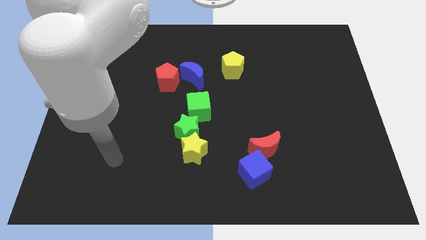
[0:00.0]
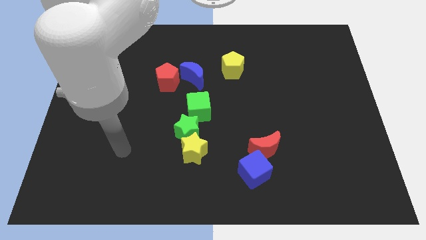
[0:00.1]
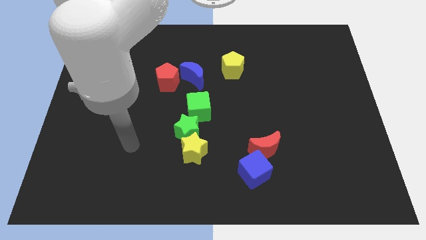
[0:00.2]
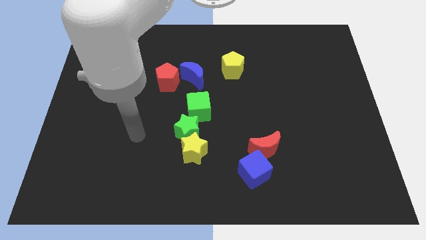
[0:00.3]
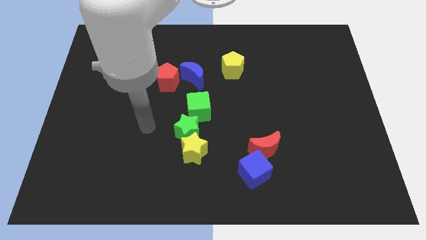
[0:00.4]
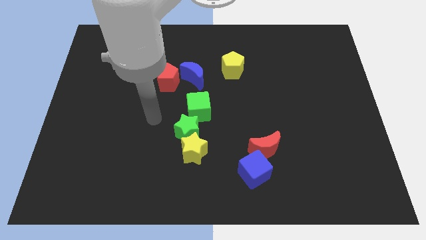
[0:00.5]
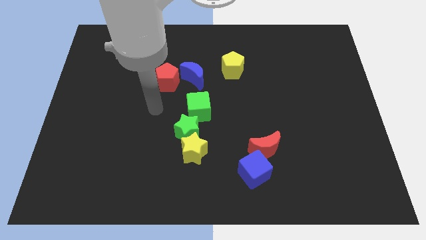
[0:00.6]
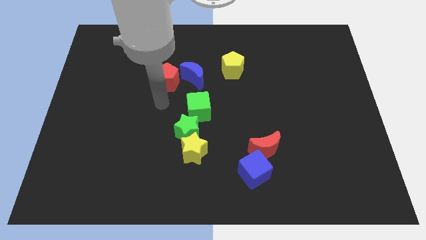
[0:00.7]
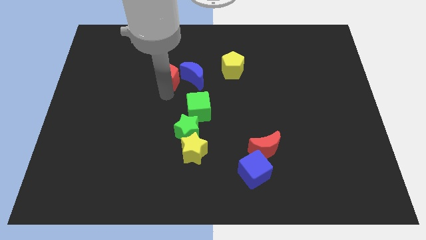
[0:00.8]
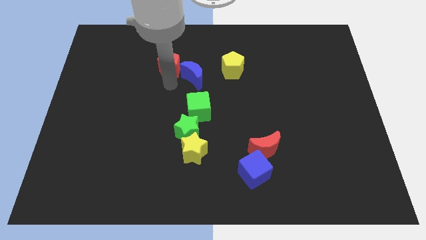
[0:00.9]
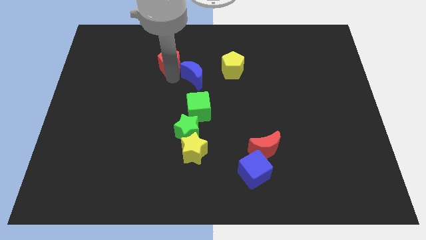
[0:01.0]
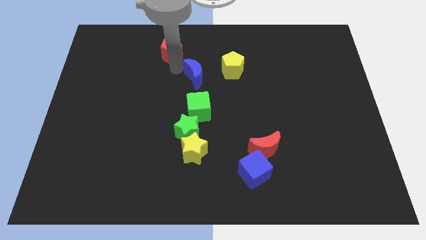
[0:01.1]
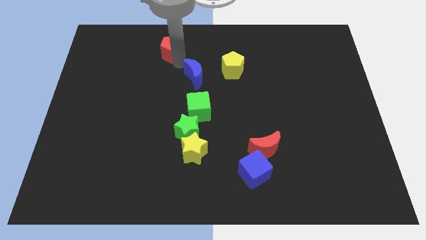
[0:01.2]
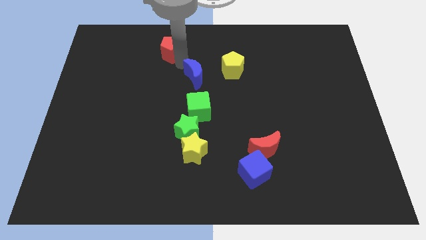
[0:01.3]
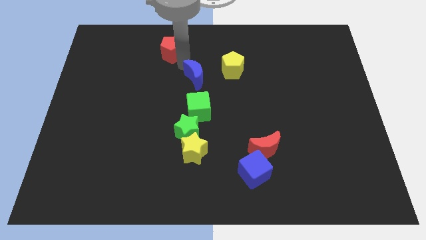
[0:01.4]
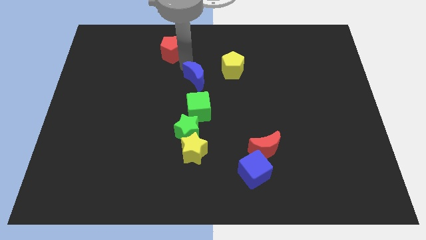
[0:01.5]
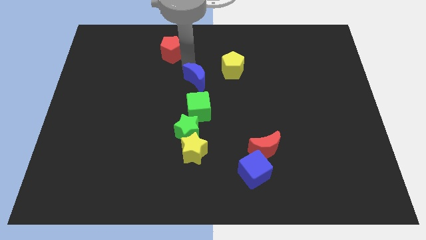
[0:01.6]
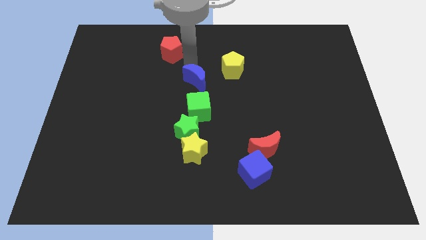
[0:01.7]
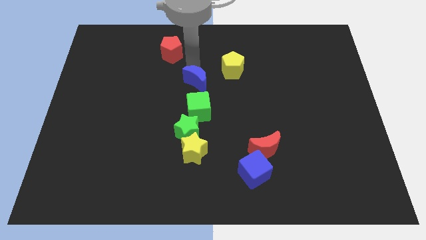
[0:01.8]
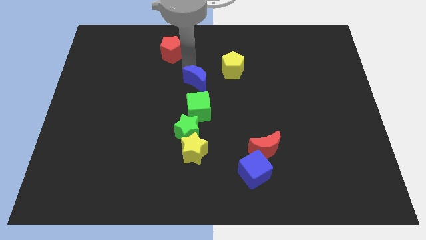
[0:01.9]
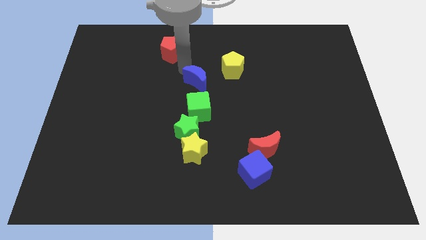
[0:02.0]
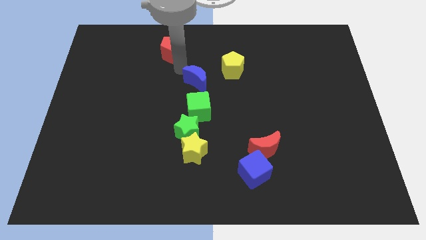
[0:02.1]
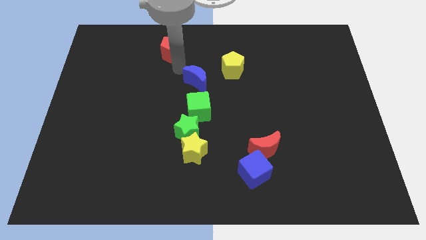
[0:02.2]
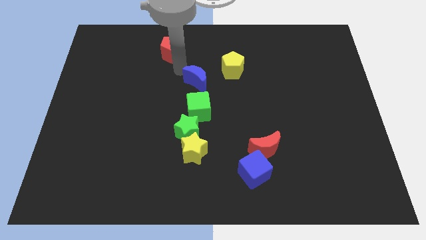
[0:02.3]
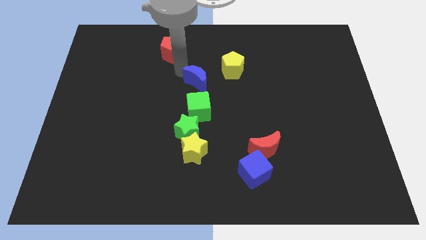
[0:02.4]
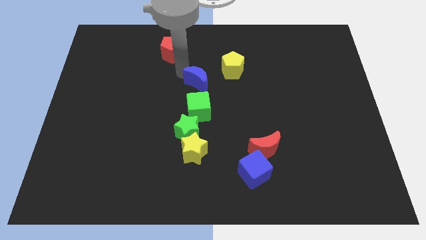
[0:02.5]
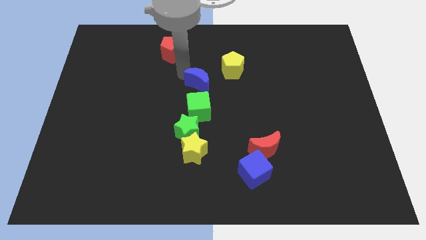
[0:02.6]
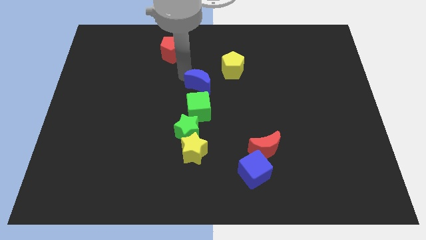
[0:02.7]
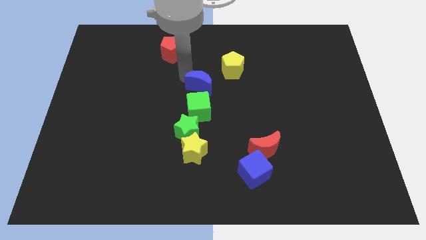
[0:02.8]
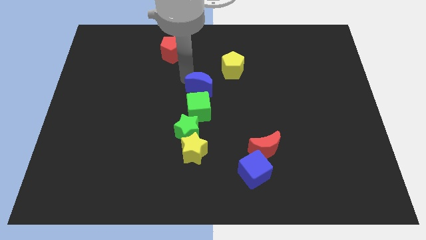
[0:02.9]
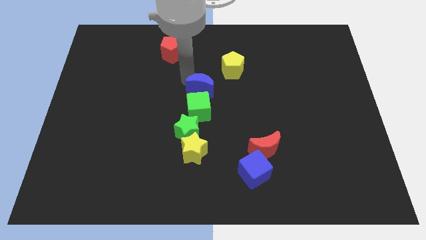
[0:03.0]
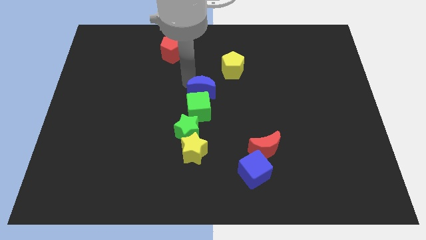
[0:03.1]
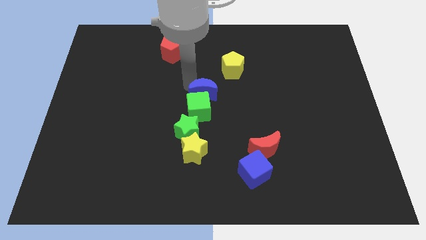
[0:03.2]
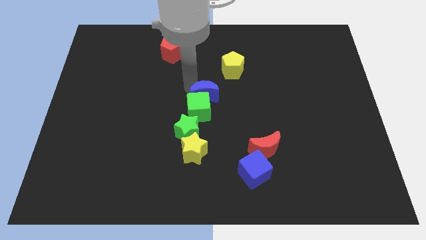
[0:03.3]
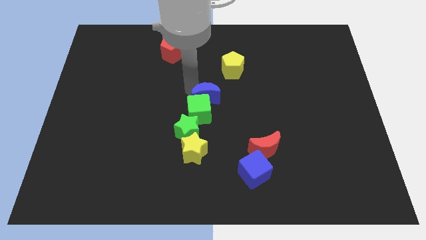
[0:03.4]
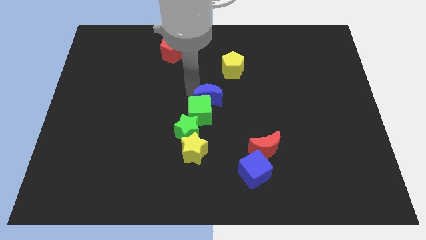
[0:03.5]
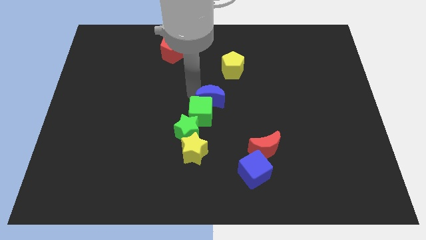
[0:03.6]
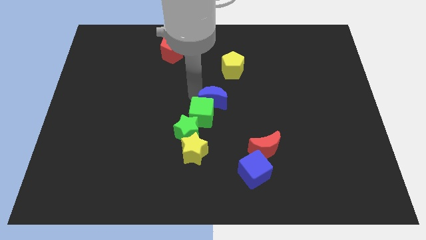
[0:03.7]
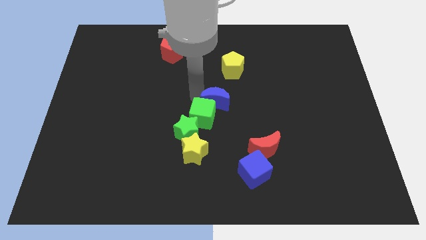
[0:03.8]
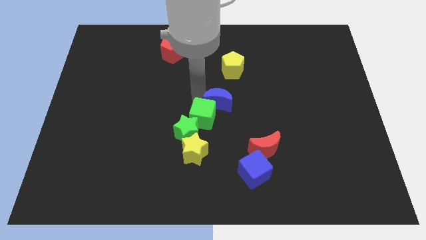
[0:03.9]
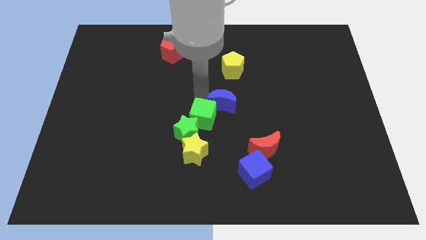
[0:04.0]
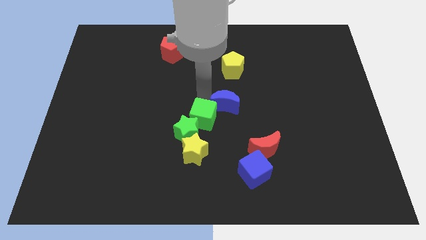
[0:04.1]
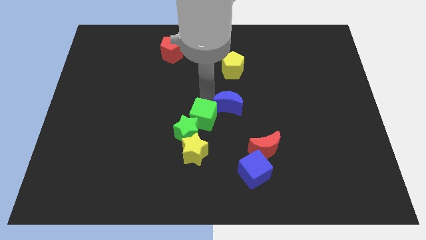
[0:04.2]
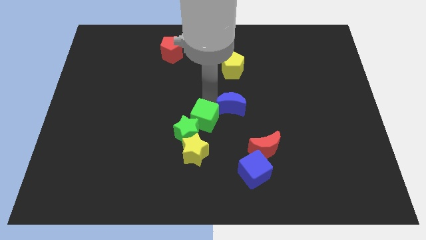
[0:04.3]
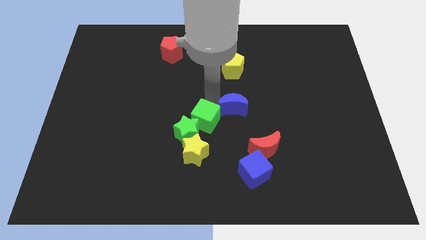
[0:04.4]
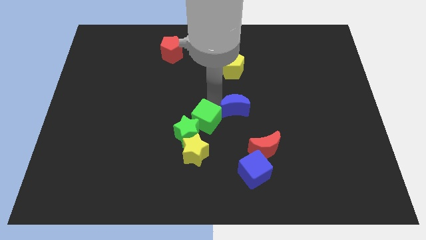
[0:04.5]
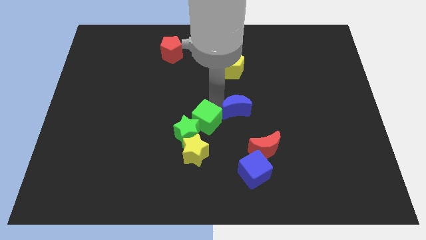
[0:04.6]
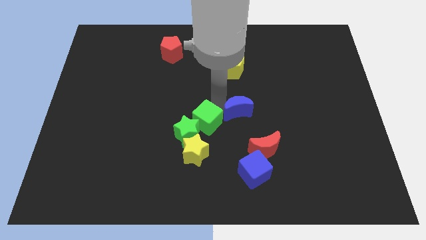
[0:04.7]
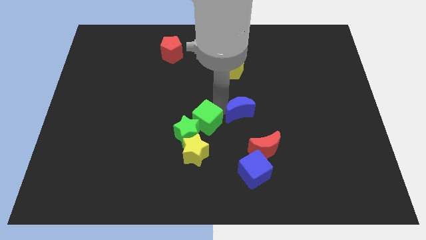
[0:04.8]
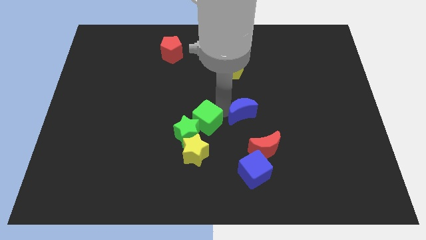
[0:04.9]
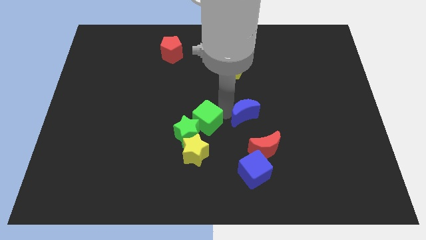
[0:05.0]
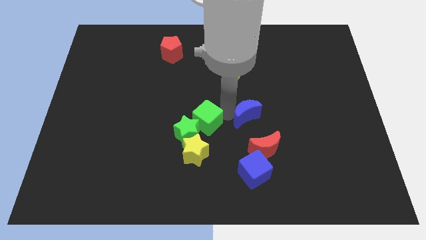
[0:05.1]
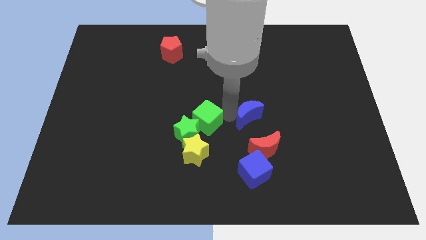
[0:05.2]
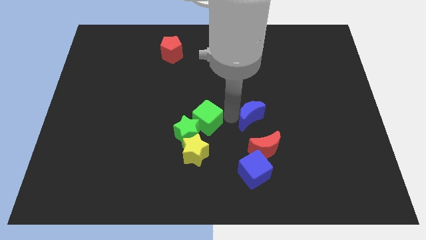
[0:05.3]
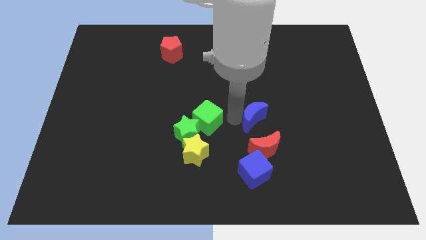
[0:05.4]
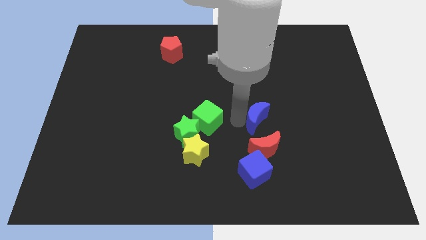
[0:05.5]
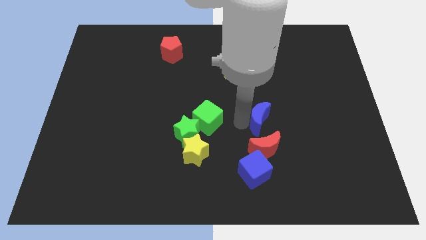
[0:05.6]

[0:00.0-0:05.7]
slide the blue moon down and then to the right

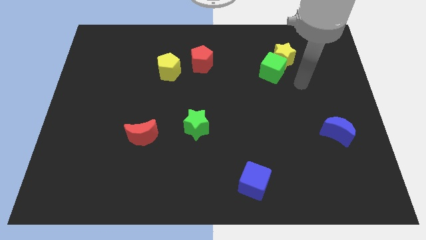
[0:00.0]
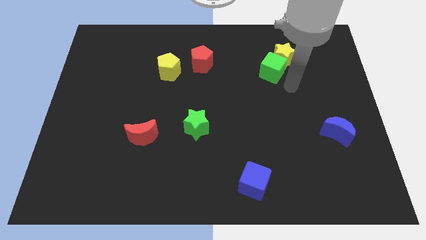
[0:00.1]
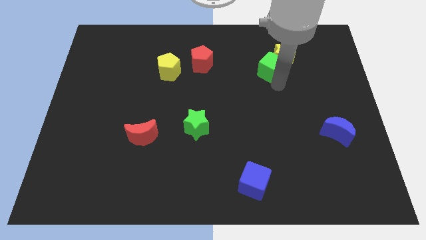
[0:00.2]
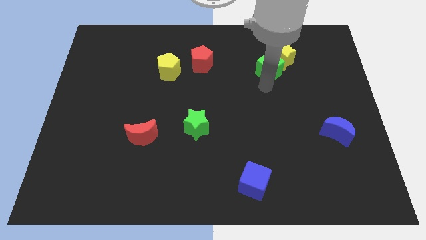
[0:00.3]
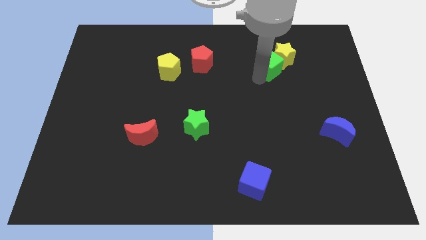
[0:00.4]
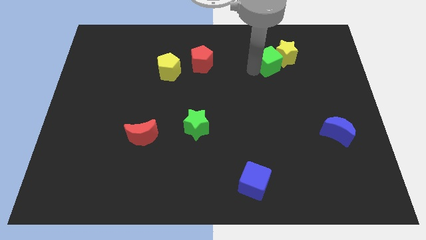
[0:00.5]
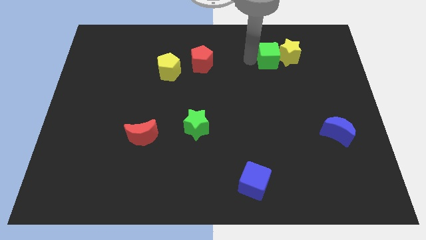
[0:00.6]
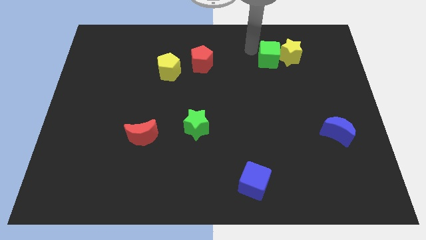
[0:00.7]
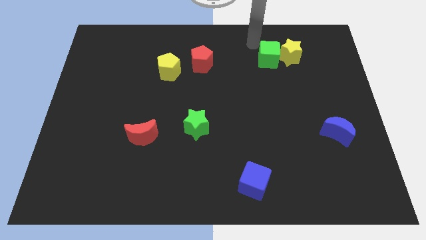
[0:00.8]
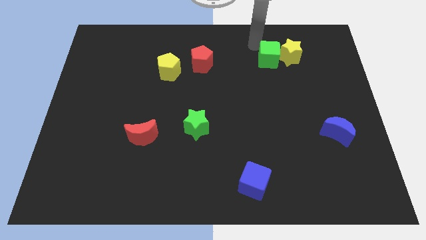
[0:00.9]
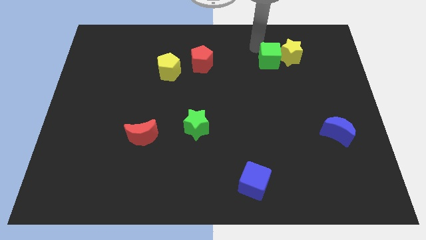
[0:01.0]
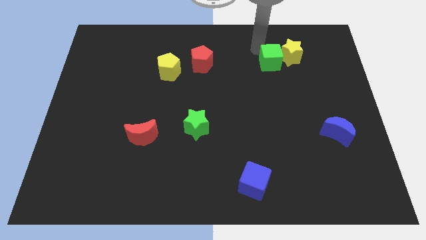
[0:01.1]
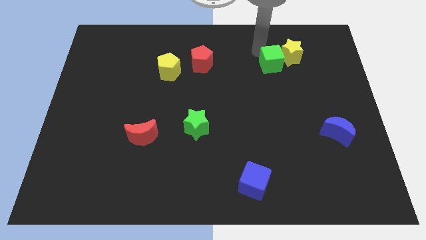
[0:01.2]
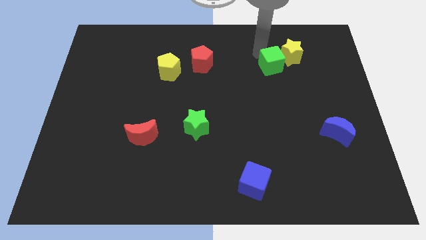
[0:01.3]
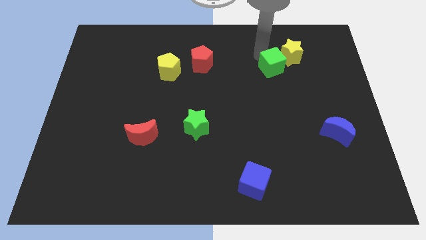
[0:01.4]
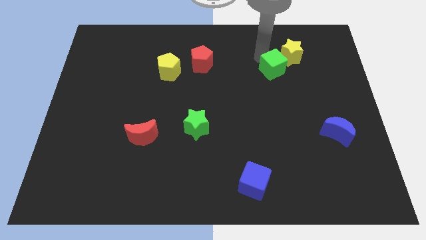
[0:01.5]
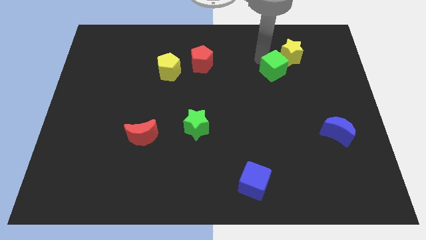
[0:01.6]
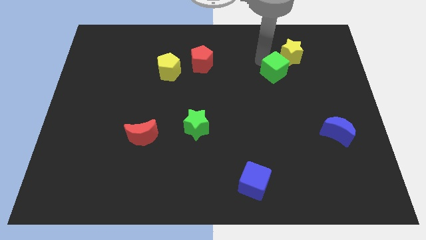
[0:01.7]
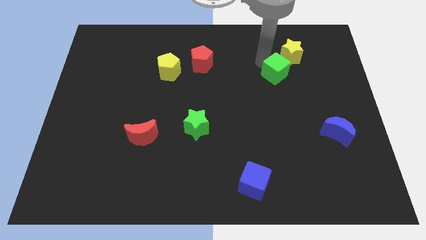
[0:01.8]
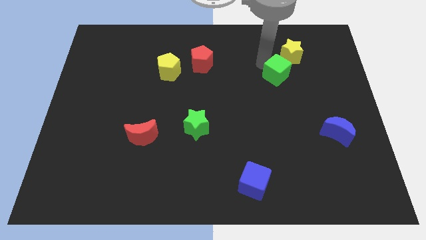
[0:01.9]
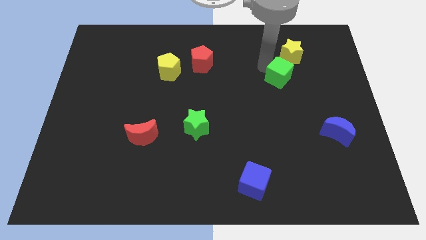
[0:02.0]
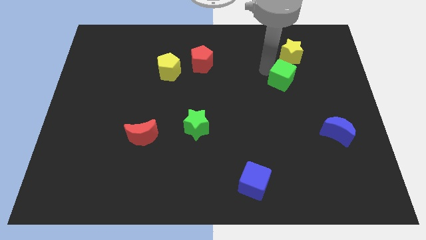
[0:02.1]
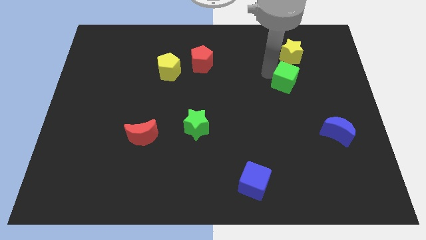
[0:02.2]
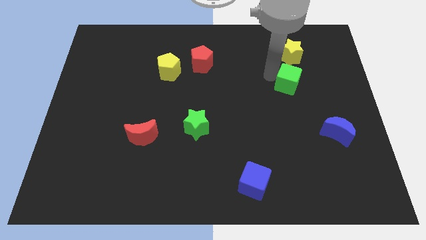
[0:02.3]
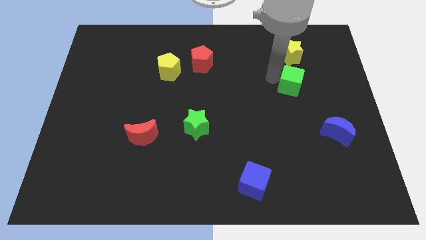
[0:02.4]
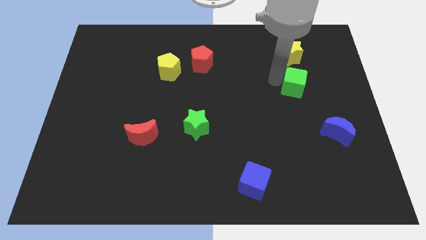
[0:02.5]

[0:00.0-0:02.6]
move the green cube diagonally down and to the right somewhat
